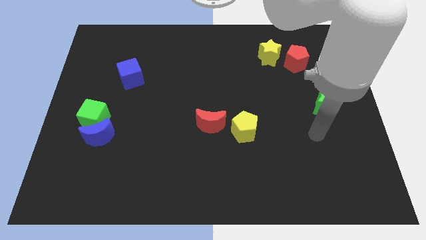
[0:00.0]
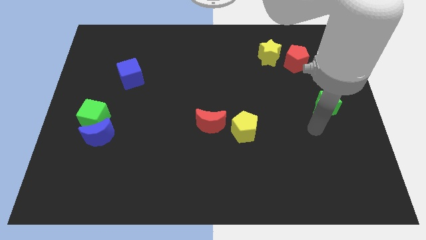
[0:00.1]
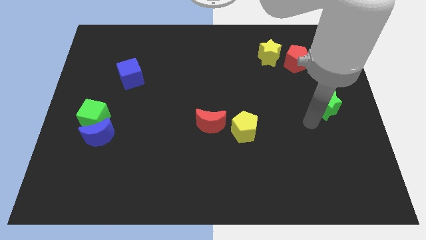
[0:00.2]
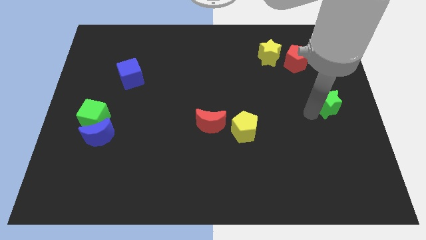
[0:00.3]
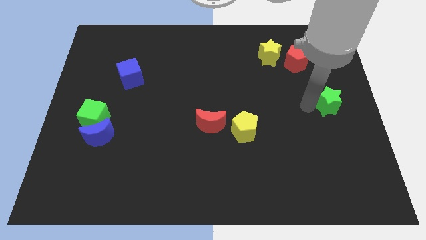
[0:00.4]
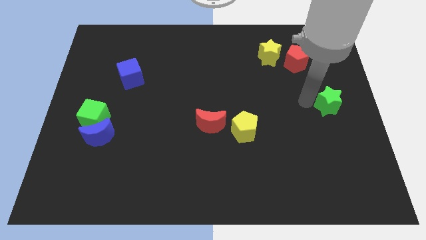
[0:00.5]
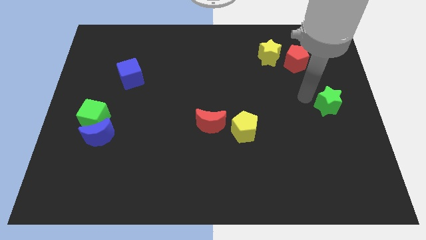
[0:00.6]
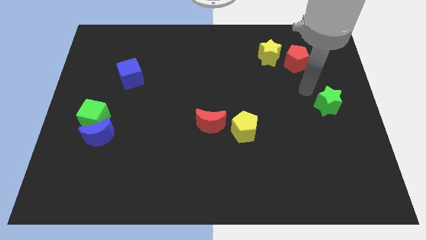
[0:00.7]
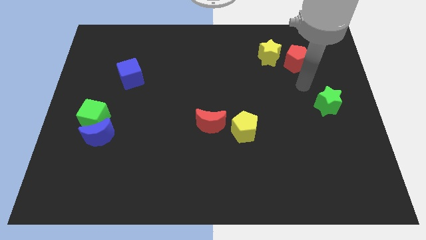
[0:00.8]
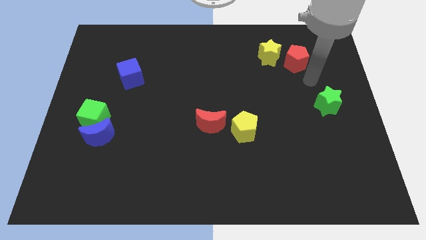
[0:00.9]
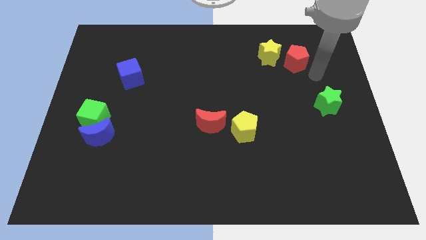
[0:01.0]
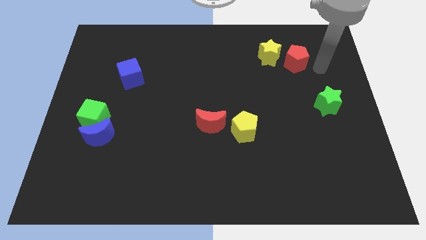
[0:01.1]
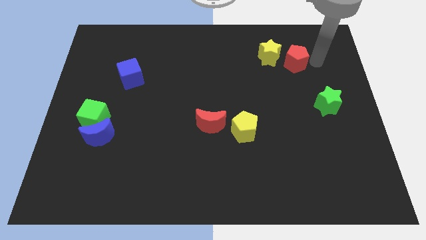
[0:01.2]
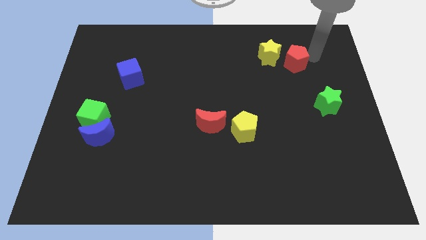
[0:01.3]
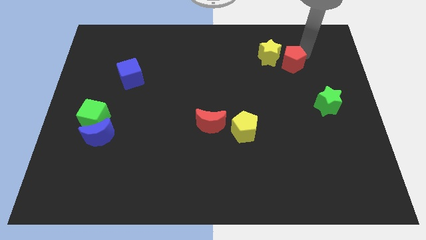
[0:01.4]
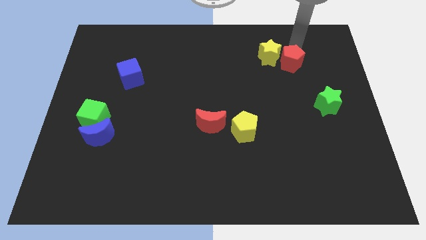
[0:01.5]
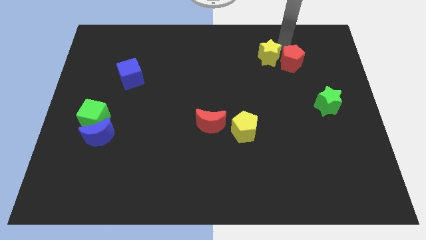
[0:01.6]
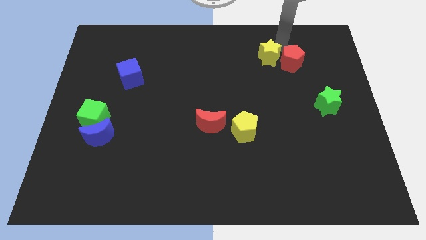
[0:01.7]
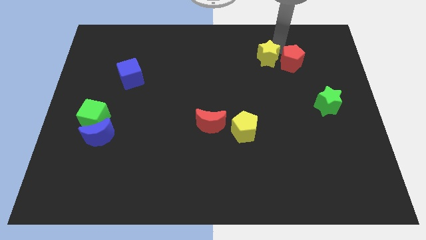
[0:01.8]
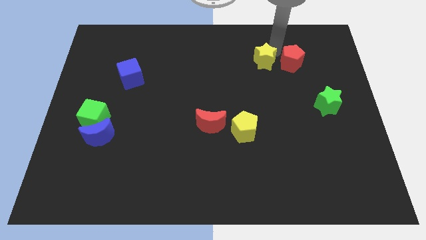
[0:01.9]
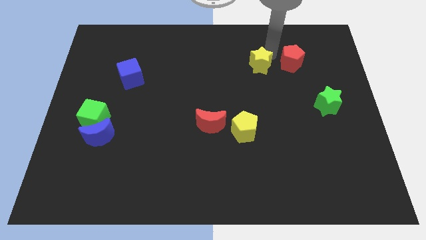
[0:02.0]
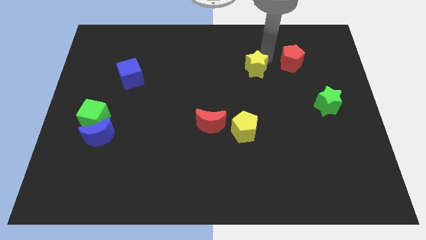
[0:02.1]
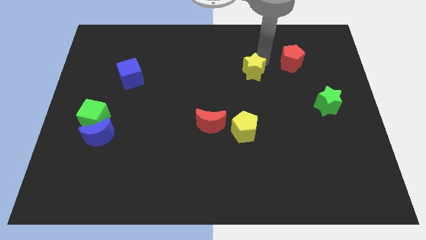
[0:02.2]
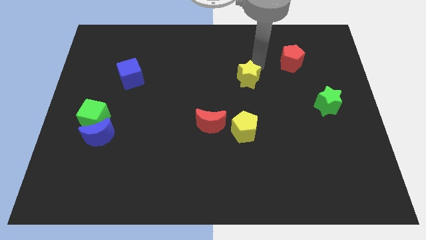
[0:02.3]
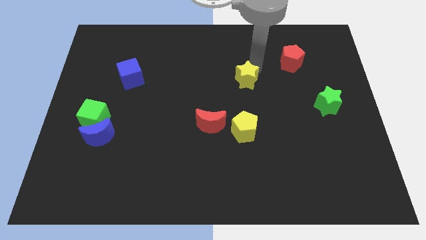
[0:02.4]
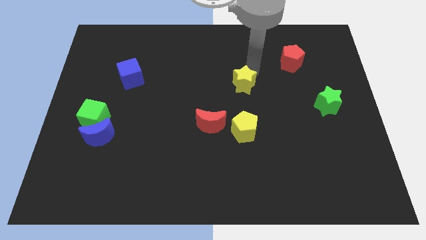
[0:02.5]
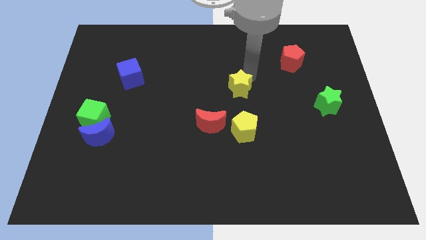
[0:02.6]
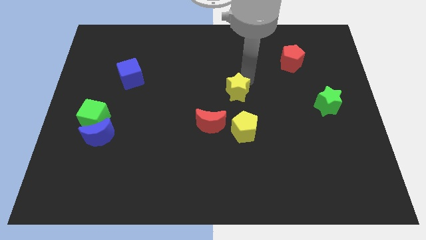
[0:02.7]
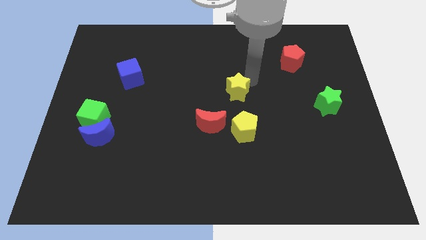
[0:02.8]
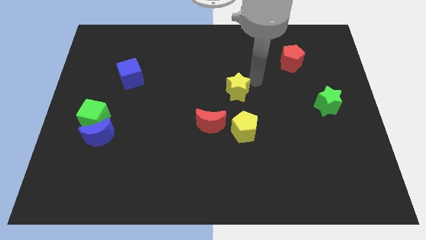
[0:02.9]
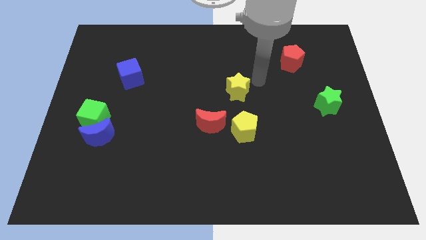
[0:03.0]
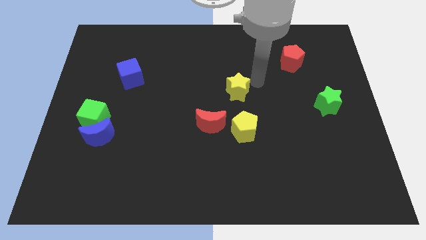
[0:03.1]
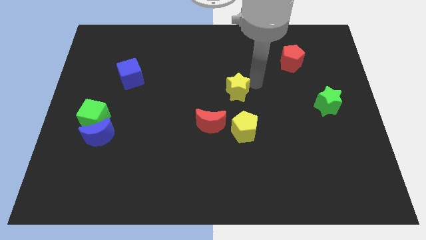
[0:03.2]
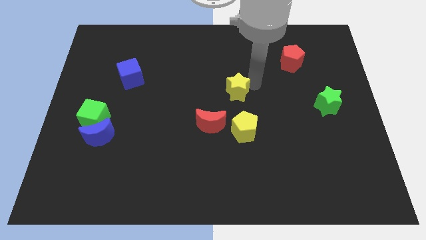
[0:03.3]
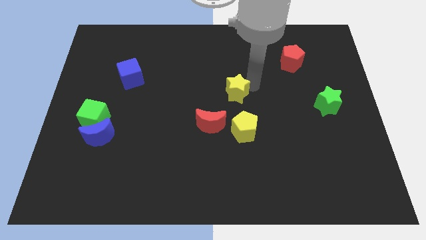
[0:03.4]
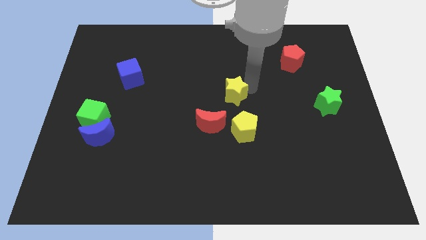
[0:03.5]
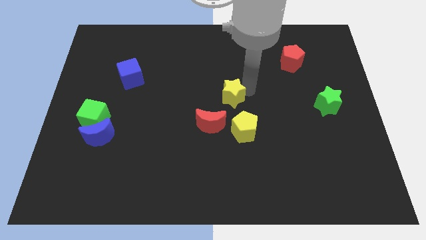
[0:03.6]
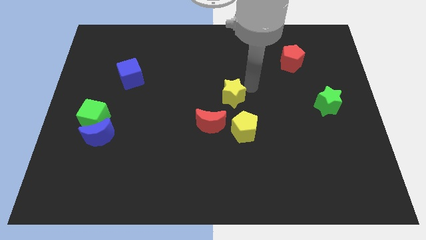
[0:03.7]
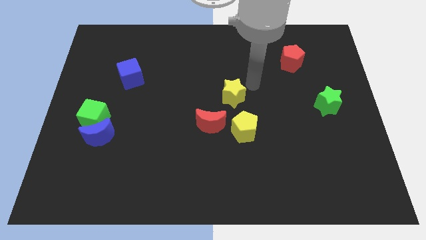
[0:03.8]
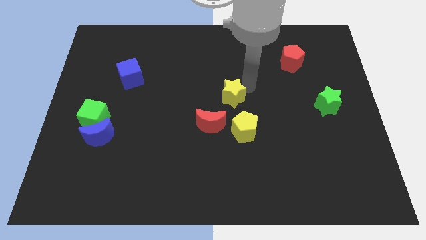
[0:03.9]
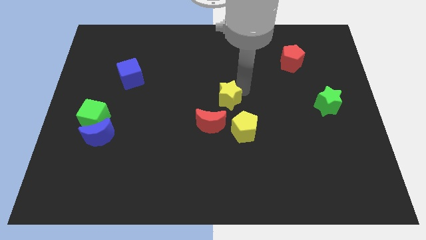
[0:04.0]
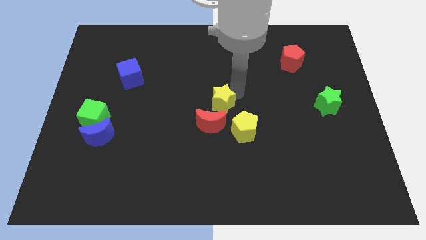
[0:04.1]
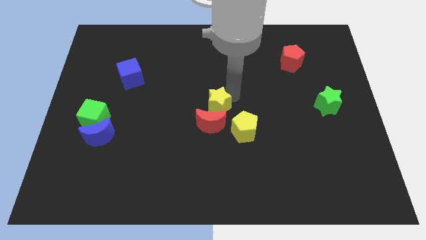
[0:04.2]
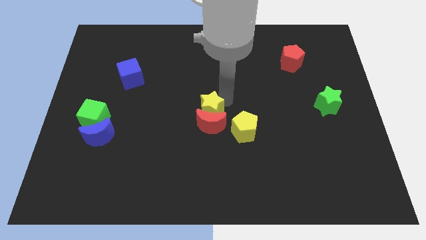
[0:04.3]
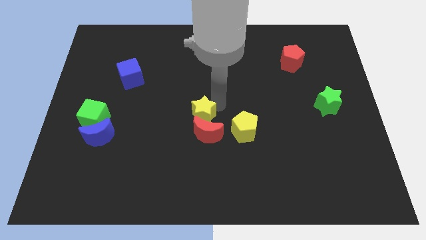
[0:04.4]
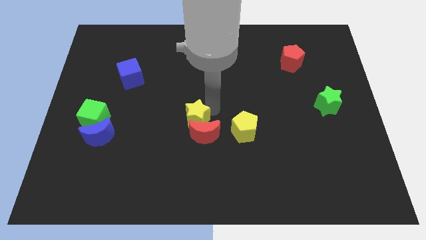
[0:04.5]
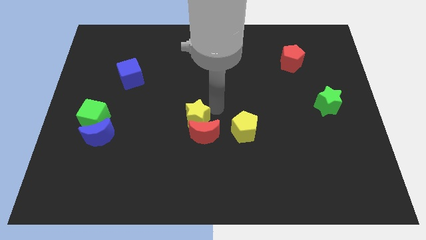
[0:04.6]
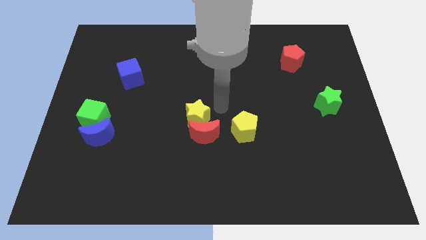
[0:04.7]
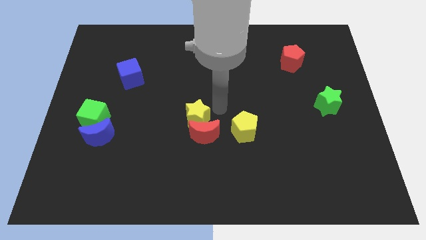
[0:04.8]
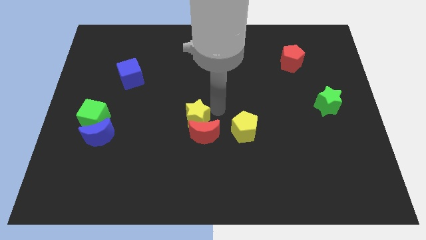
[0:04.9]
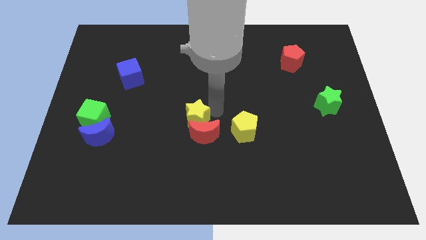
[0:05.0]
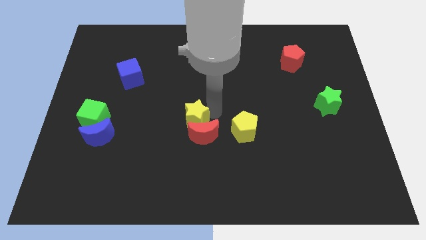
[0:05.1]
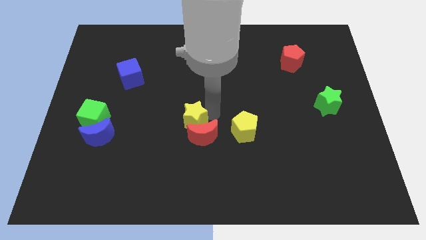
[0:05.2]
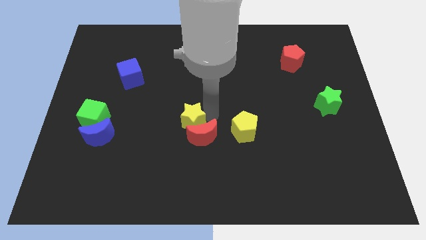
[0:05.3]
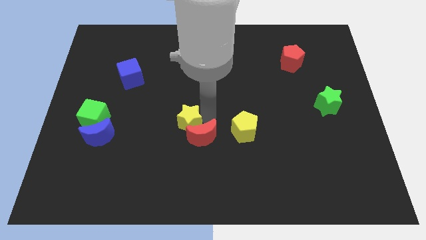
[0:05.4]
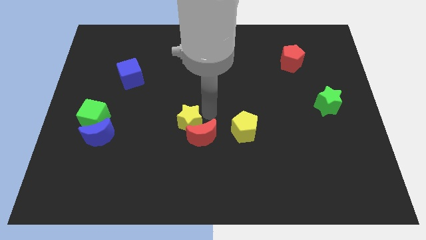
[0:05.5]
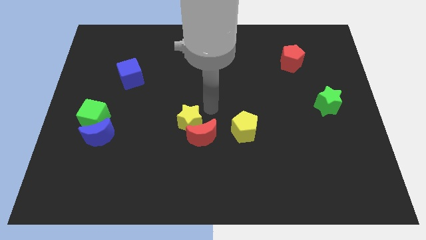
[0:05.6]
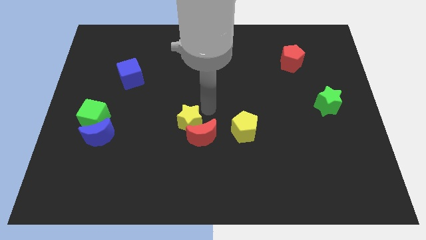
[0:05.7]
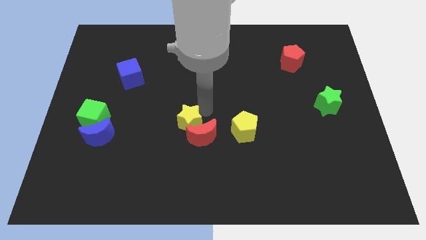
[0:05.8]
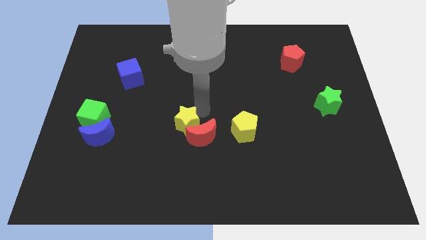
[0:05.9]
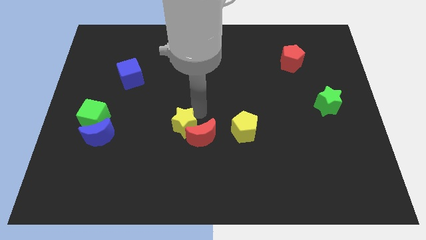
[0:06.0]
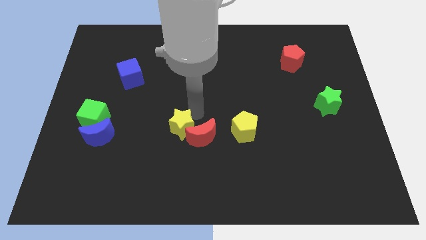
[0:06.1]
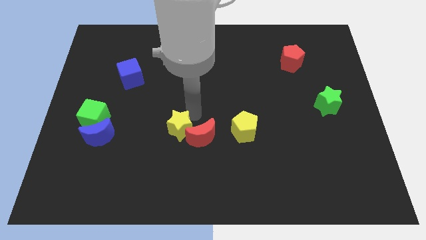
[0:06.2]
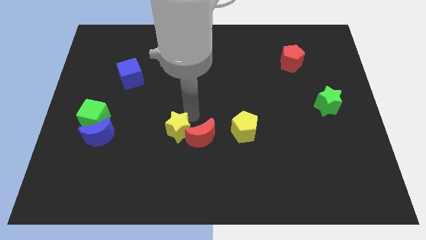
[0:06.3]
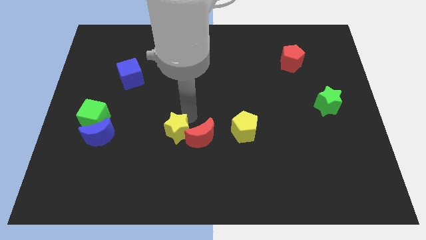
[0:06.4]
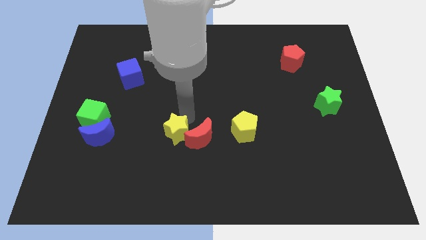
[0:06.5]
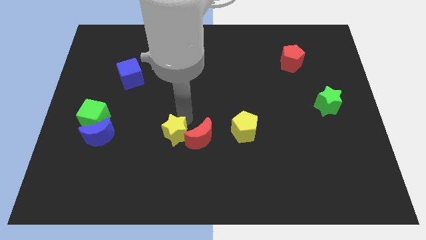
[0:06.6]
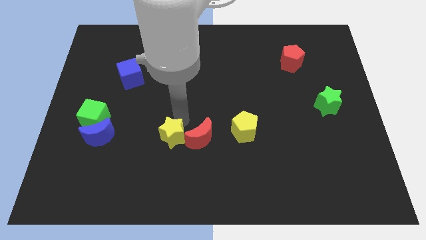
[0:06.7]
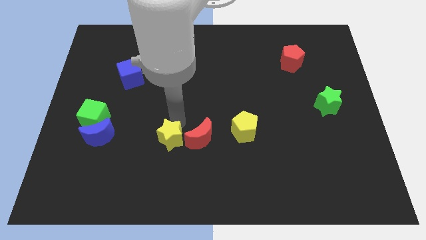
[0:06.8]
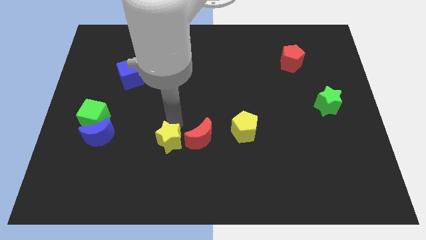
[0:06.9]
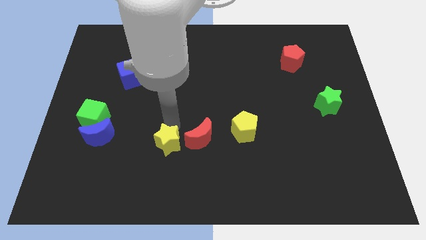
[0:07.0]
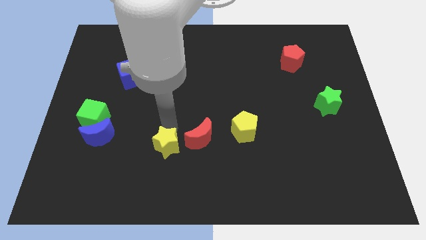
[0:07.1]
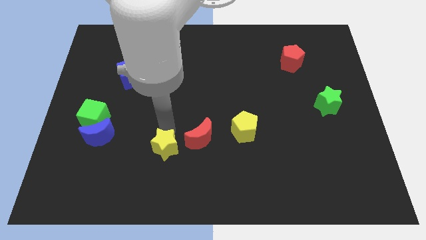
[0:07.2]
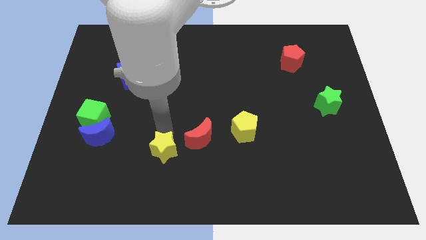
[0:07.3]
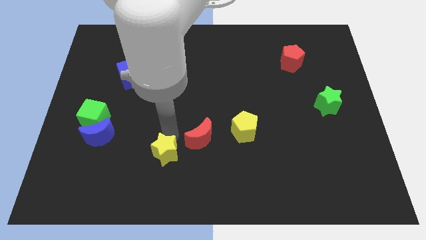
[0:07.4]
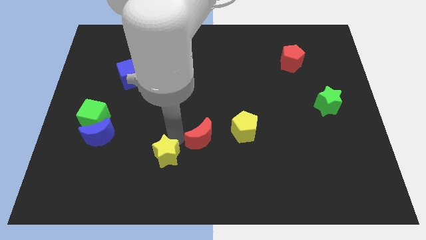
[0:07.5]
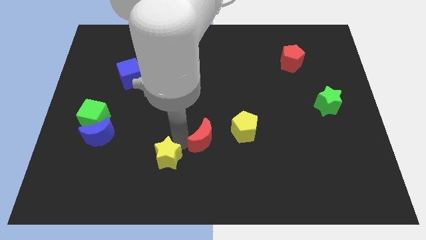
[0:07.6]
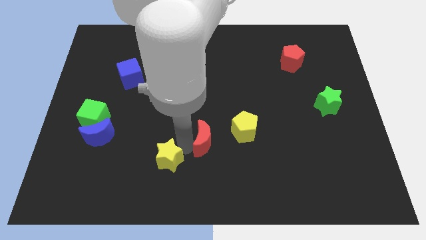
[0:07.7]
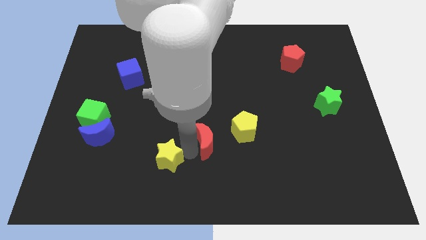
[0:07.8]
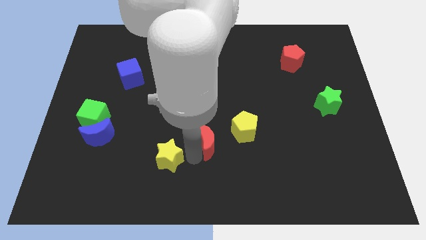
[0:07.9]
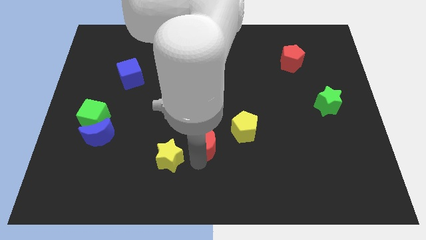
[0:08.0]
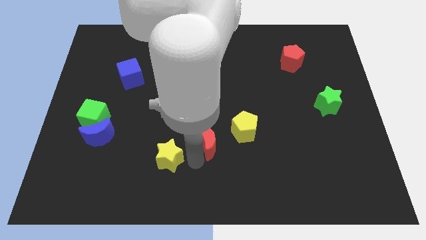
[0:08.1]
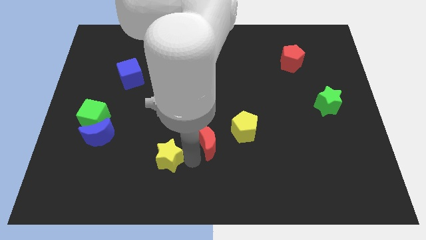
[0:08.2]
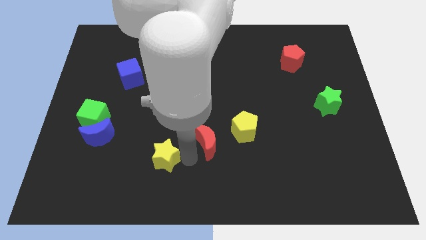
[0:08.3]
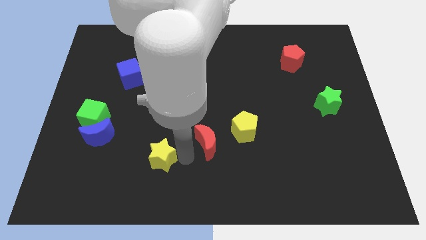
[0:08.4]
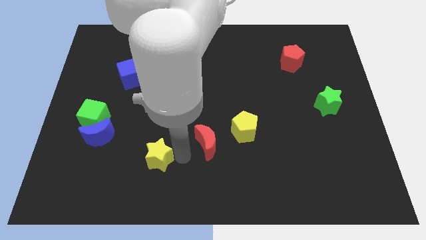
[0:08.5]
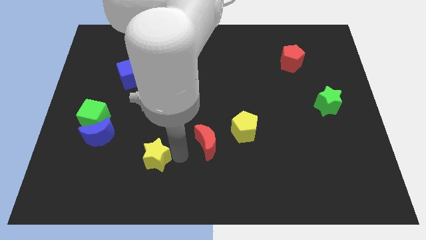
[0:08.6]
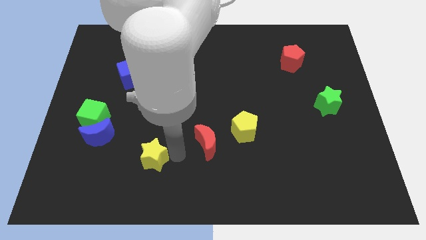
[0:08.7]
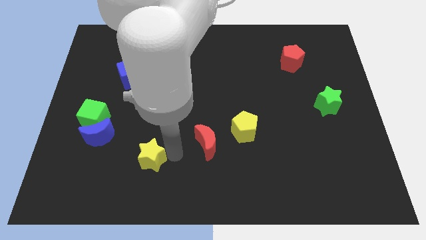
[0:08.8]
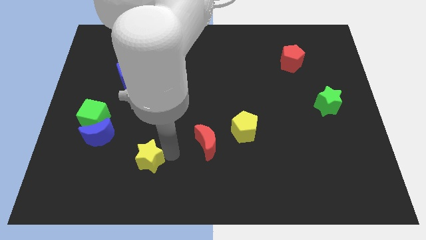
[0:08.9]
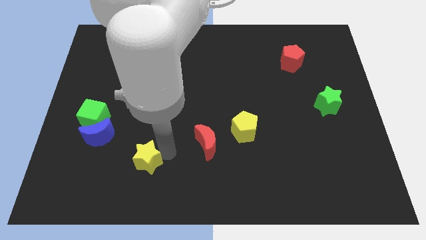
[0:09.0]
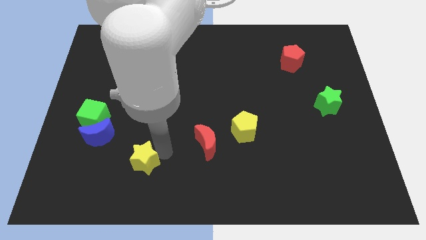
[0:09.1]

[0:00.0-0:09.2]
move the yellow star diagonally down and to the right of the blue moon
